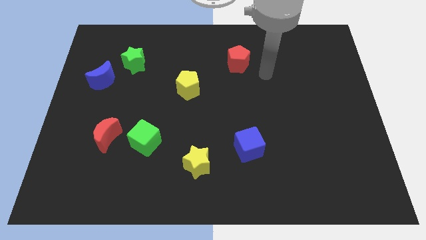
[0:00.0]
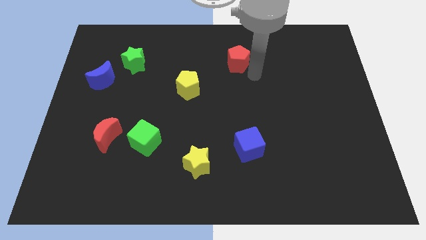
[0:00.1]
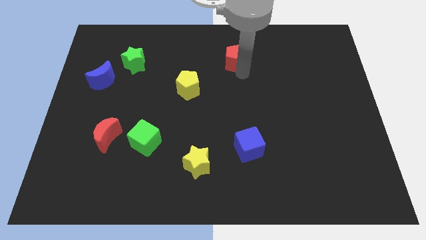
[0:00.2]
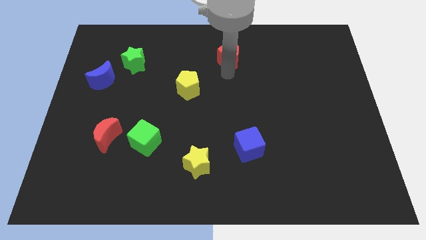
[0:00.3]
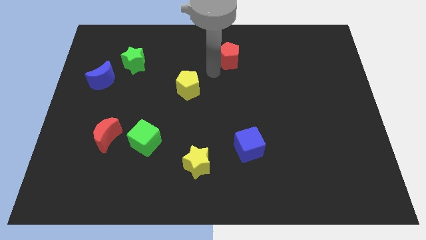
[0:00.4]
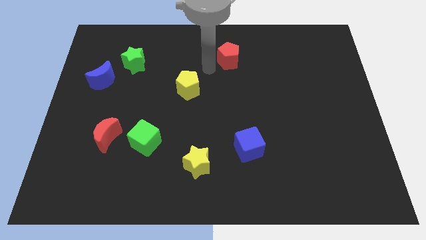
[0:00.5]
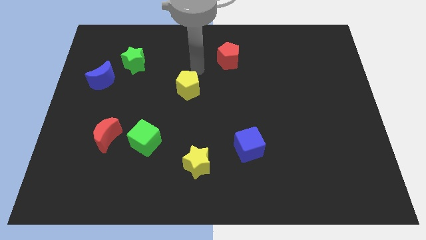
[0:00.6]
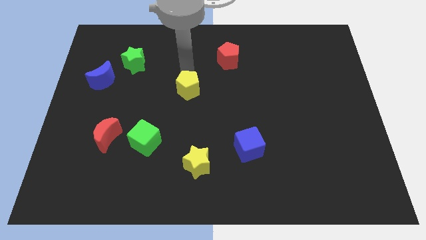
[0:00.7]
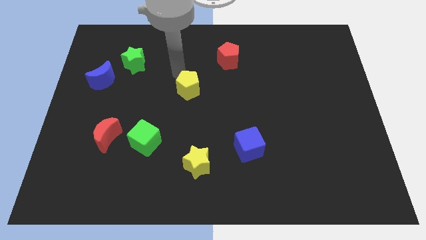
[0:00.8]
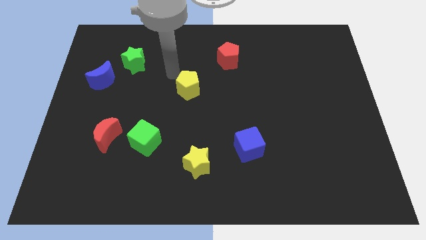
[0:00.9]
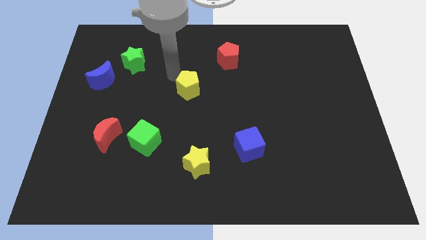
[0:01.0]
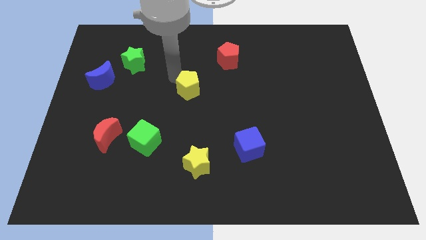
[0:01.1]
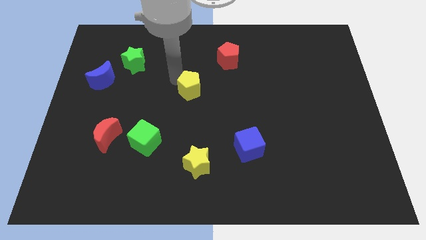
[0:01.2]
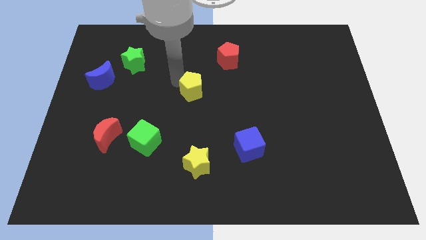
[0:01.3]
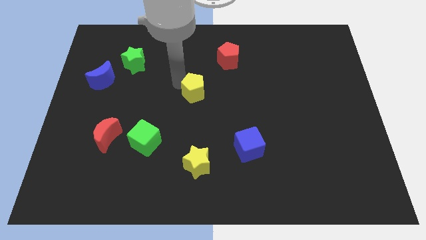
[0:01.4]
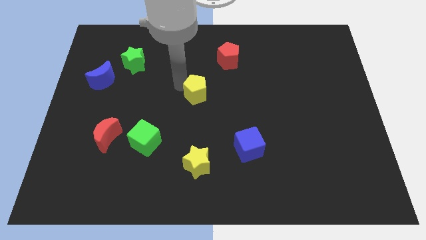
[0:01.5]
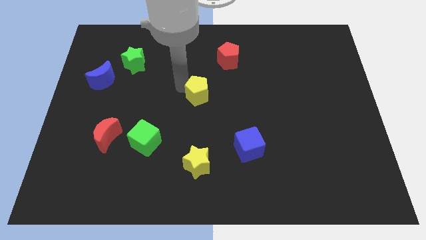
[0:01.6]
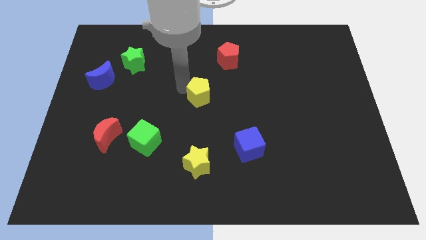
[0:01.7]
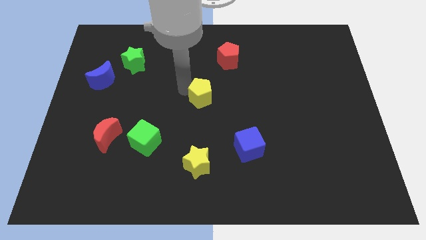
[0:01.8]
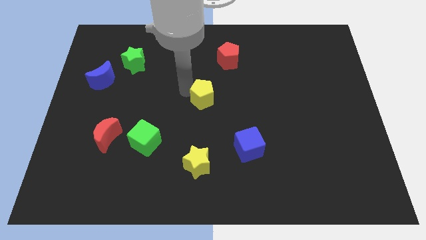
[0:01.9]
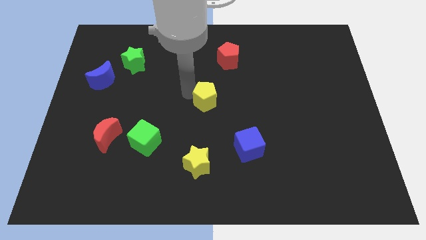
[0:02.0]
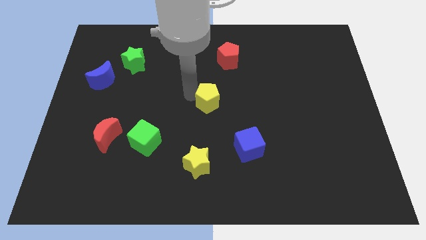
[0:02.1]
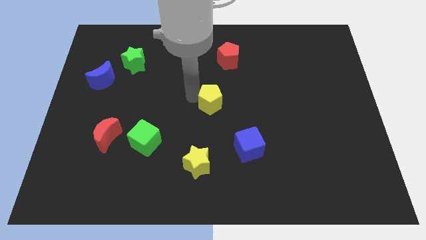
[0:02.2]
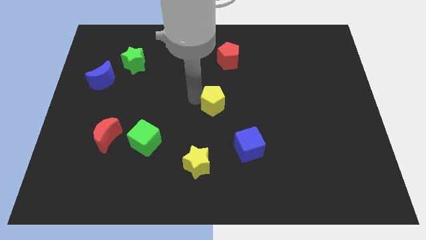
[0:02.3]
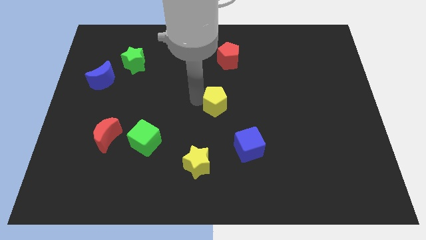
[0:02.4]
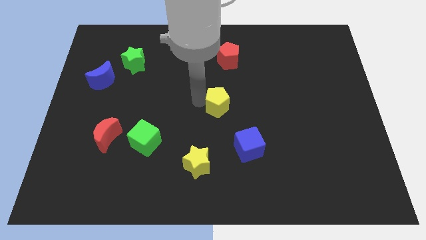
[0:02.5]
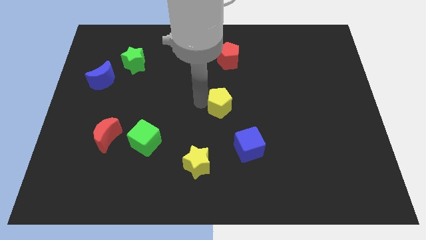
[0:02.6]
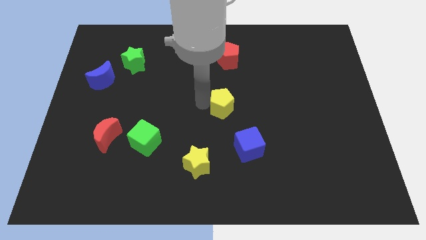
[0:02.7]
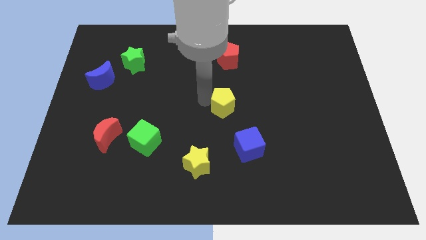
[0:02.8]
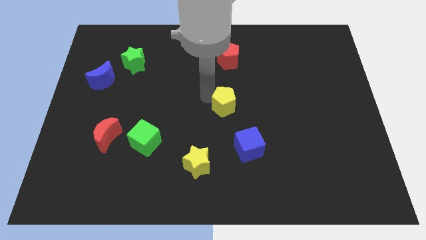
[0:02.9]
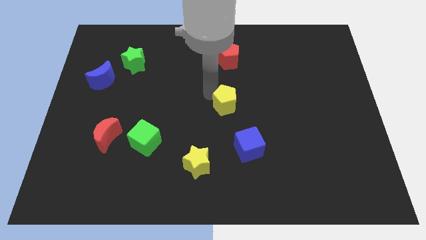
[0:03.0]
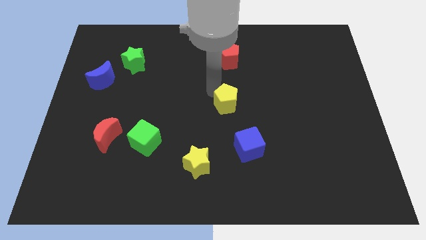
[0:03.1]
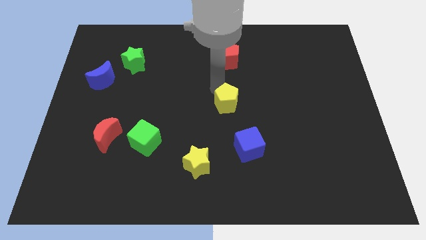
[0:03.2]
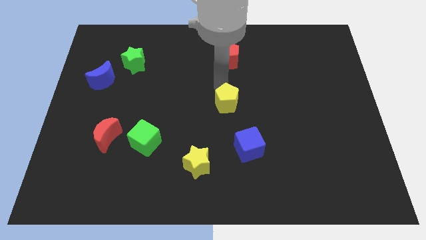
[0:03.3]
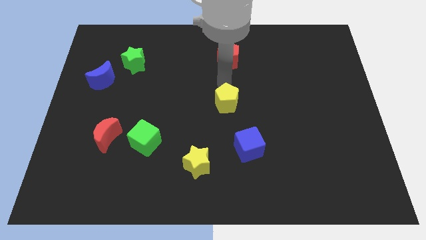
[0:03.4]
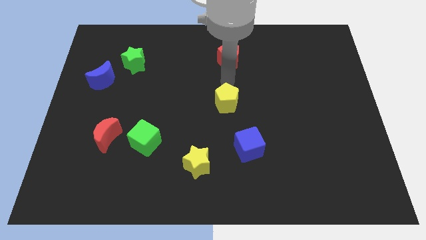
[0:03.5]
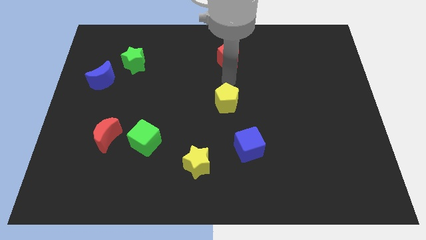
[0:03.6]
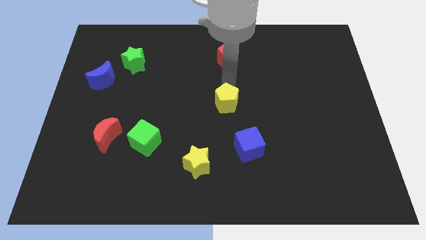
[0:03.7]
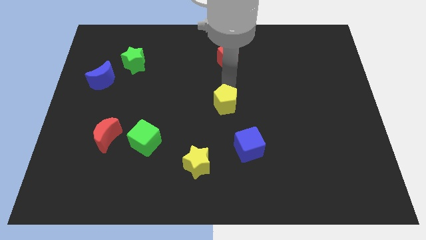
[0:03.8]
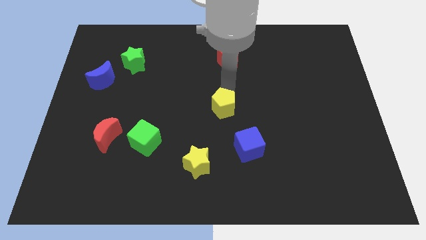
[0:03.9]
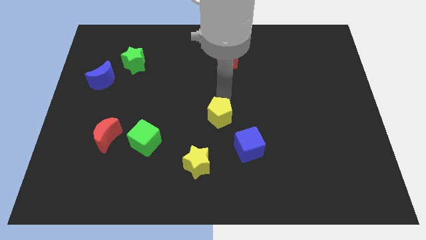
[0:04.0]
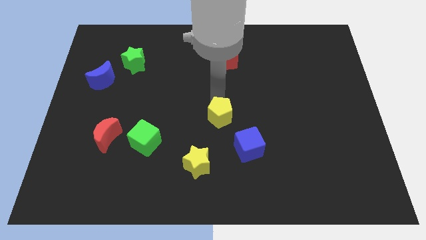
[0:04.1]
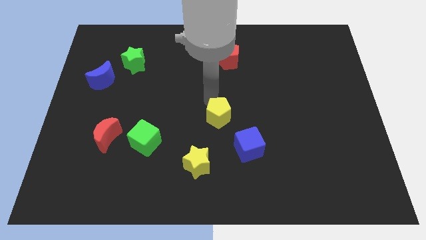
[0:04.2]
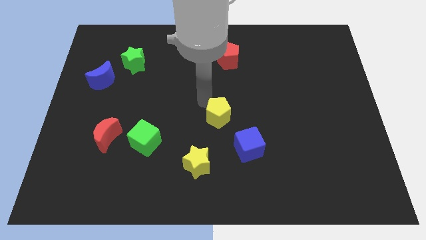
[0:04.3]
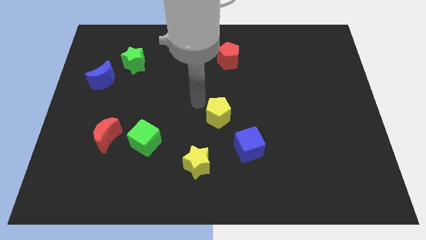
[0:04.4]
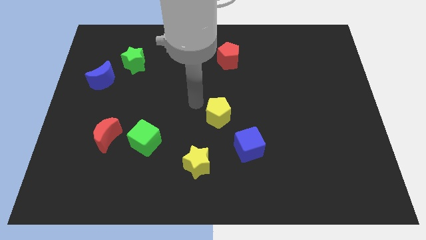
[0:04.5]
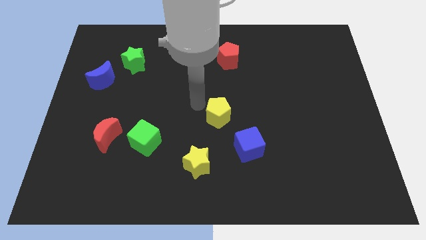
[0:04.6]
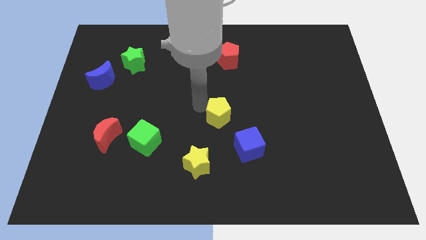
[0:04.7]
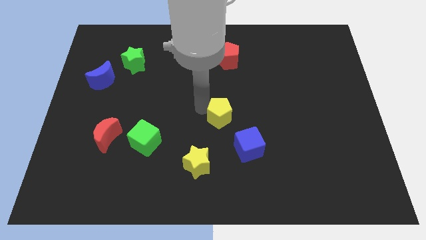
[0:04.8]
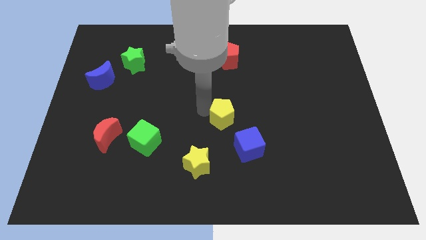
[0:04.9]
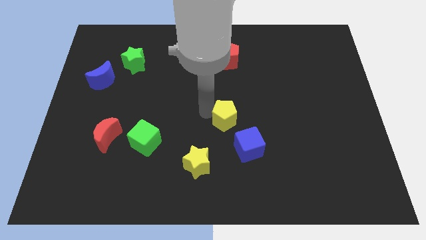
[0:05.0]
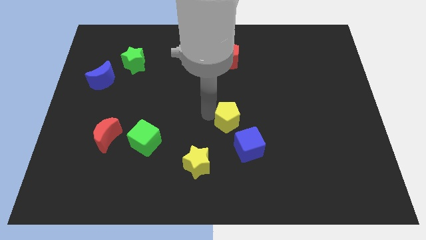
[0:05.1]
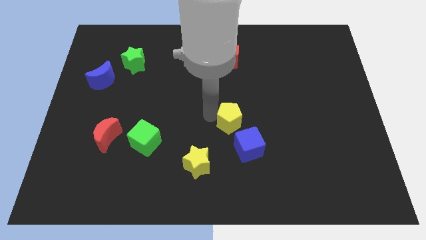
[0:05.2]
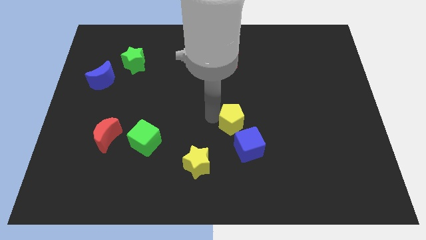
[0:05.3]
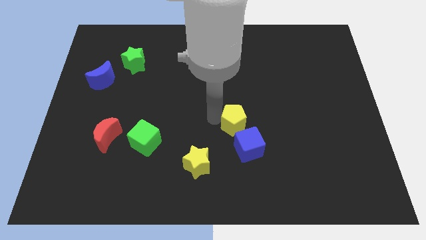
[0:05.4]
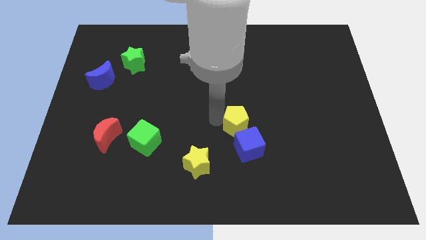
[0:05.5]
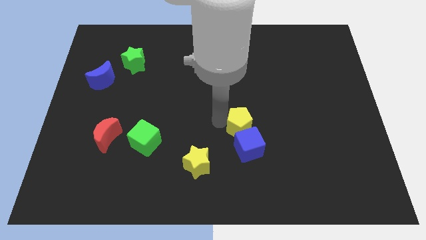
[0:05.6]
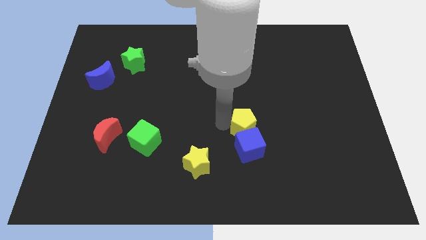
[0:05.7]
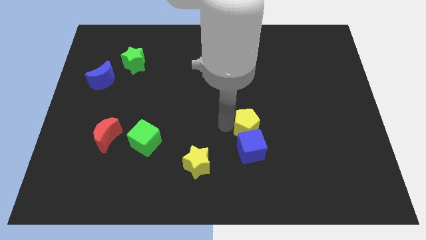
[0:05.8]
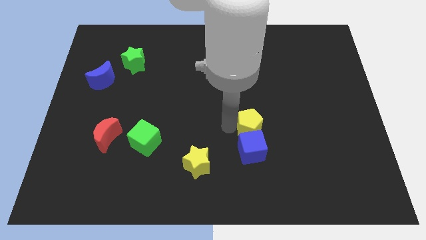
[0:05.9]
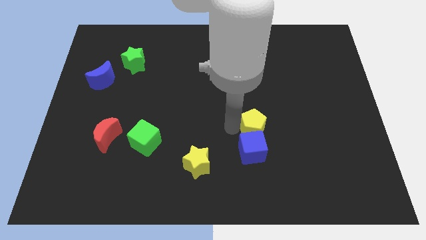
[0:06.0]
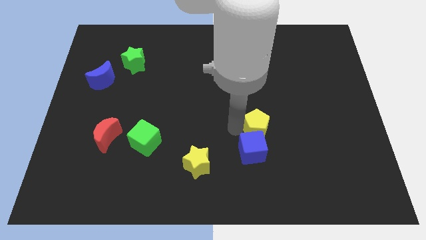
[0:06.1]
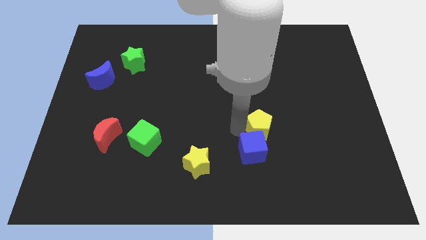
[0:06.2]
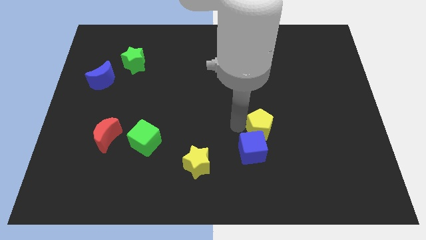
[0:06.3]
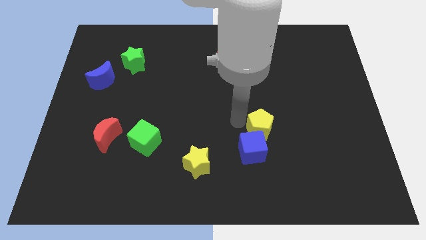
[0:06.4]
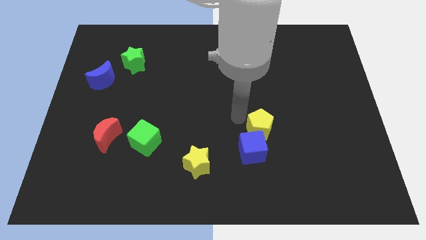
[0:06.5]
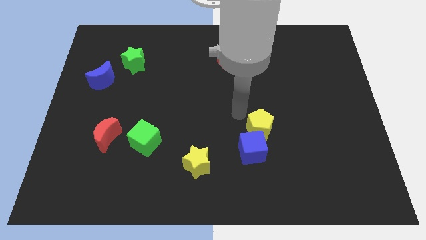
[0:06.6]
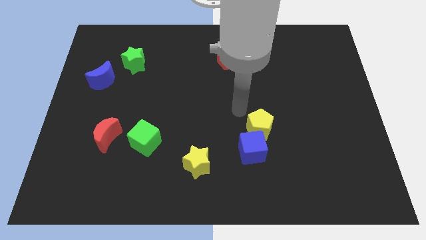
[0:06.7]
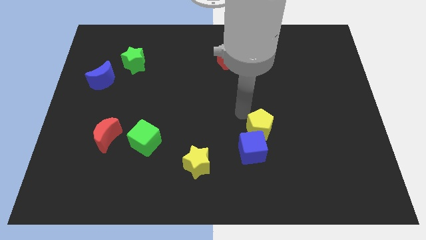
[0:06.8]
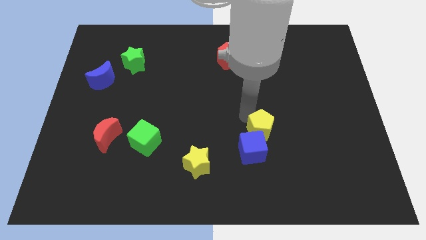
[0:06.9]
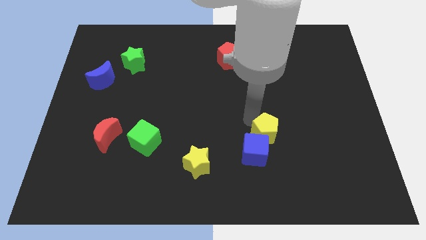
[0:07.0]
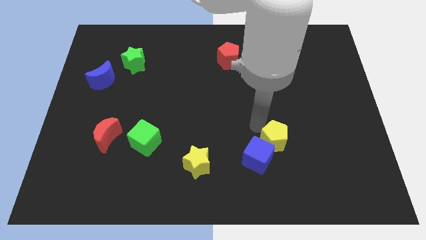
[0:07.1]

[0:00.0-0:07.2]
push the yellow pentagon to the right side of the blue cube
